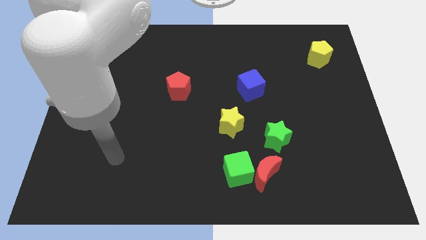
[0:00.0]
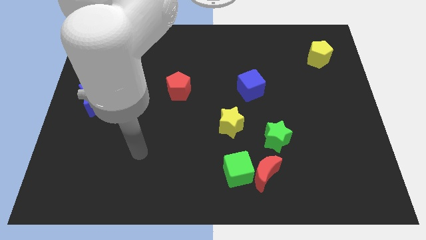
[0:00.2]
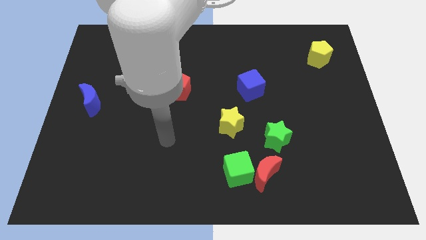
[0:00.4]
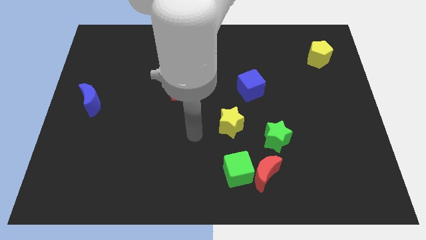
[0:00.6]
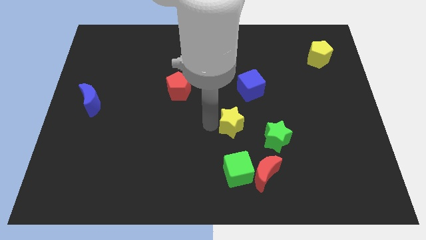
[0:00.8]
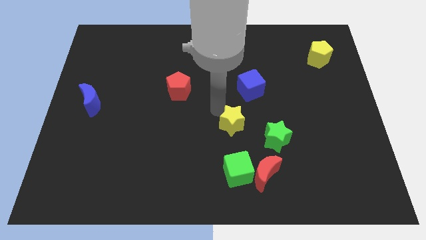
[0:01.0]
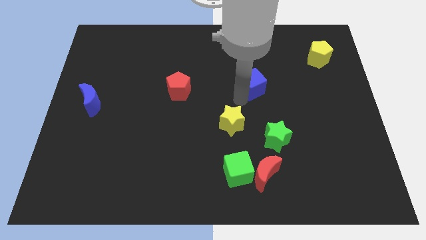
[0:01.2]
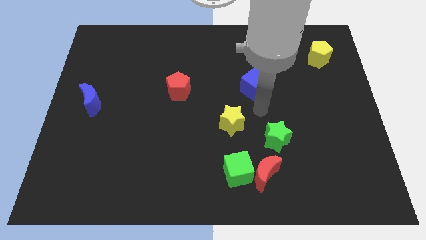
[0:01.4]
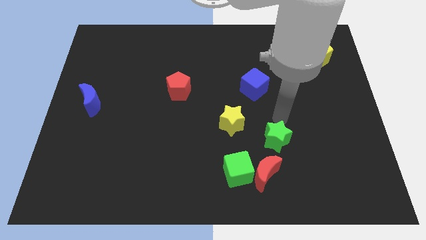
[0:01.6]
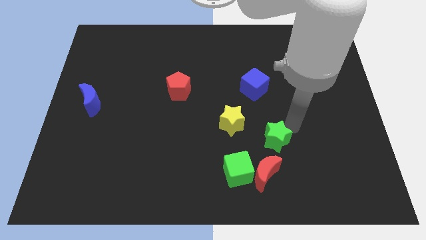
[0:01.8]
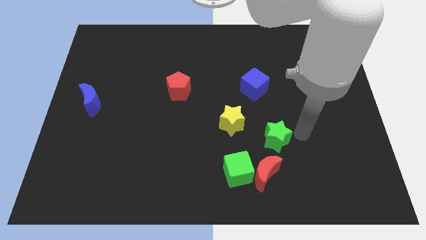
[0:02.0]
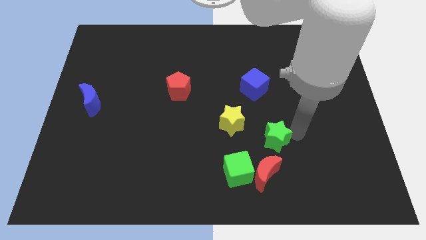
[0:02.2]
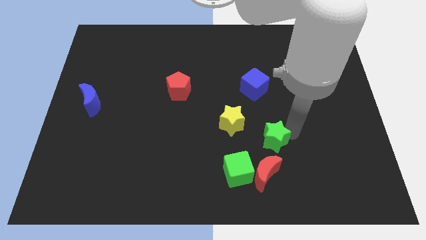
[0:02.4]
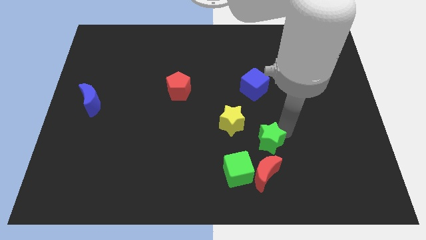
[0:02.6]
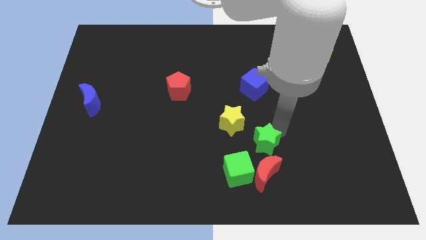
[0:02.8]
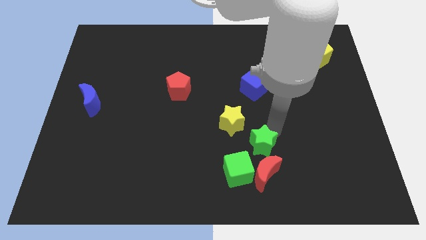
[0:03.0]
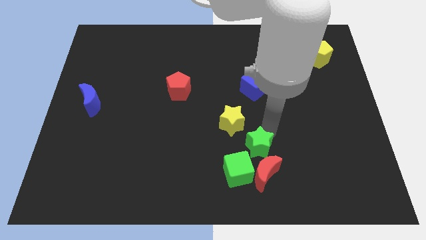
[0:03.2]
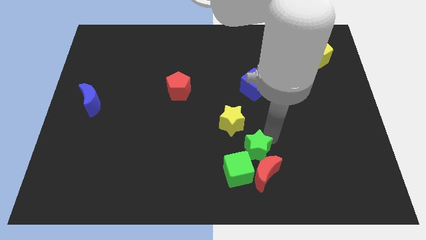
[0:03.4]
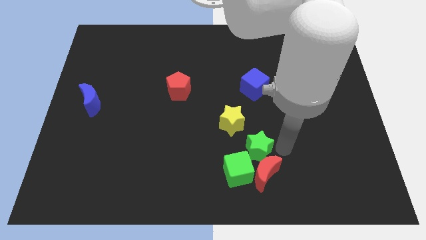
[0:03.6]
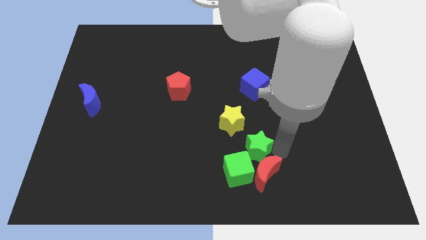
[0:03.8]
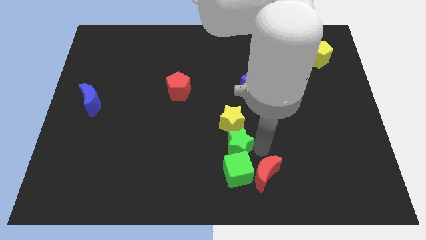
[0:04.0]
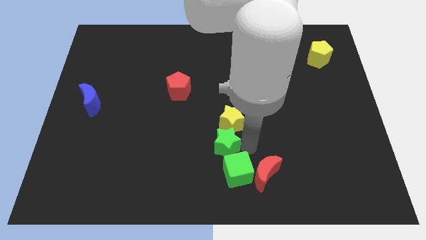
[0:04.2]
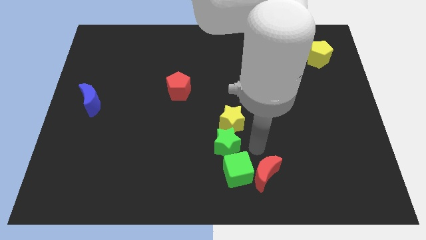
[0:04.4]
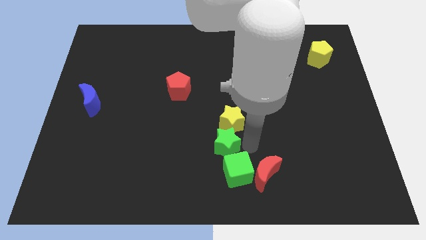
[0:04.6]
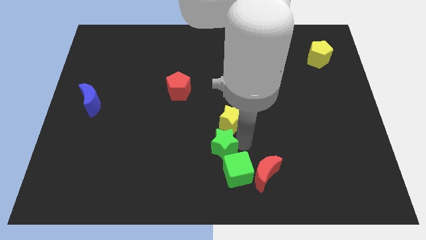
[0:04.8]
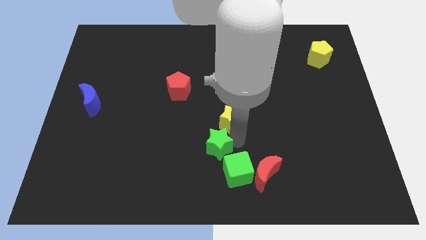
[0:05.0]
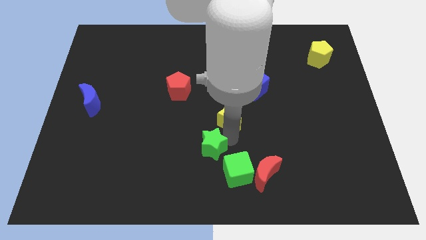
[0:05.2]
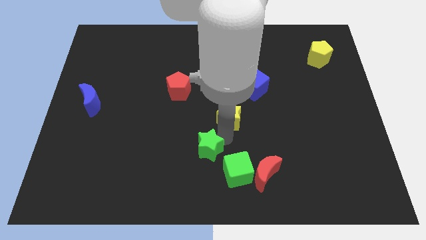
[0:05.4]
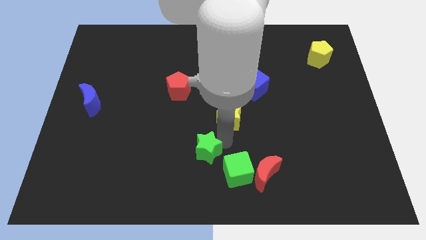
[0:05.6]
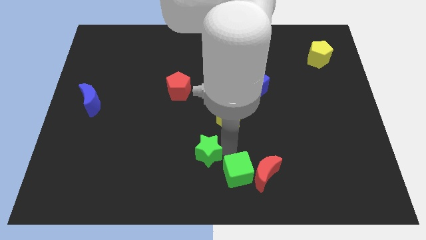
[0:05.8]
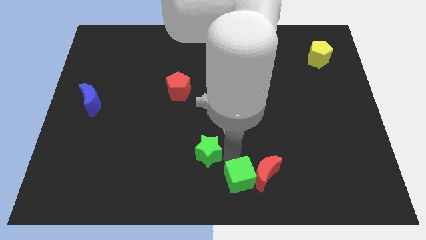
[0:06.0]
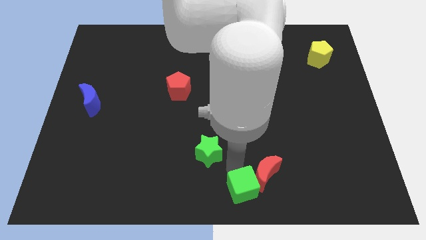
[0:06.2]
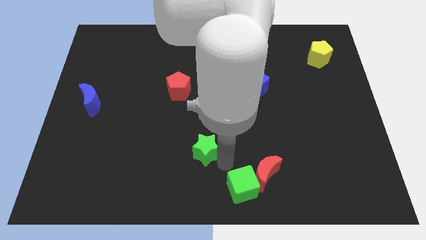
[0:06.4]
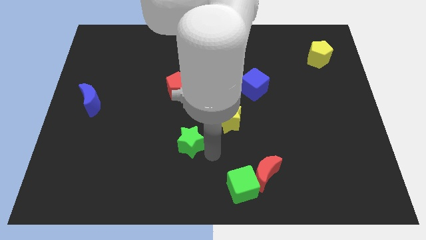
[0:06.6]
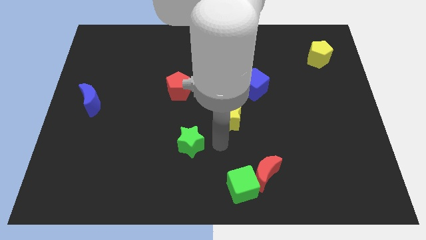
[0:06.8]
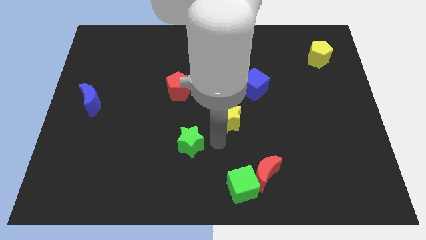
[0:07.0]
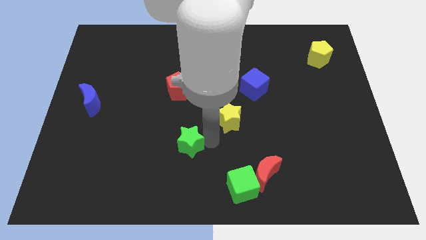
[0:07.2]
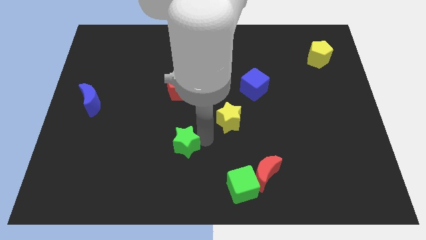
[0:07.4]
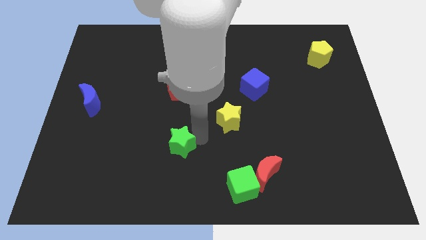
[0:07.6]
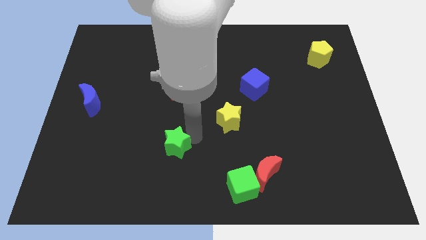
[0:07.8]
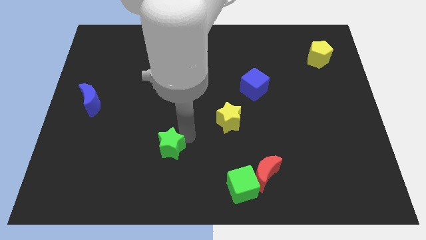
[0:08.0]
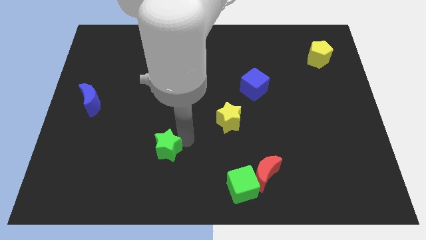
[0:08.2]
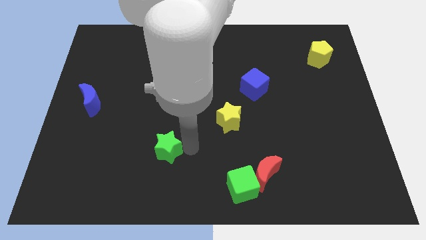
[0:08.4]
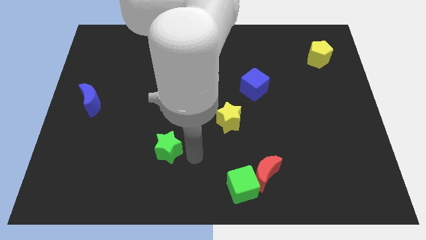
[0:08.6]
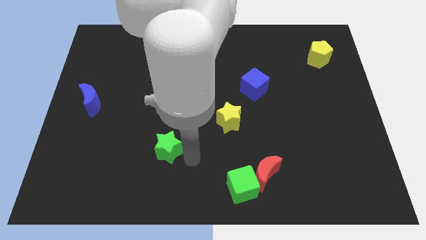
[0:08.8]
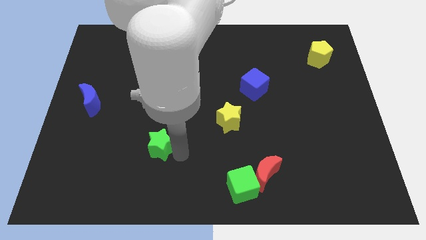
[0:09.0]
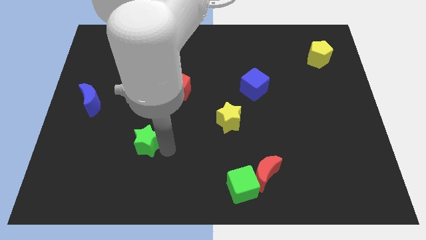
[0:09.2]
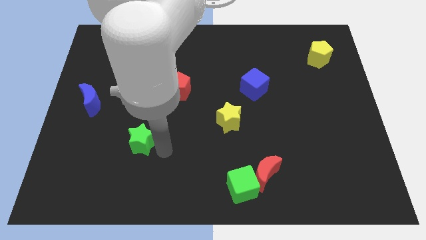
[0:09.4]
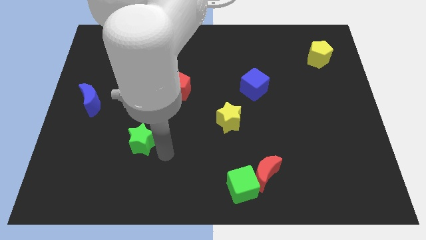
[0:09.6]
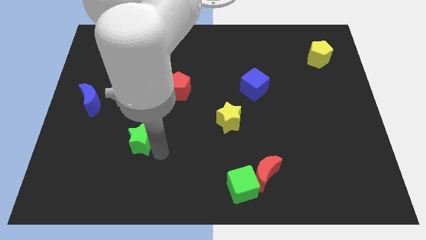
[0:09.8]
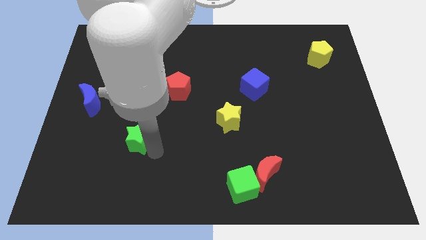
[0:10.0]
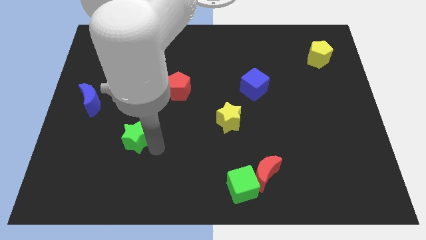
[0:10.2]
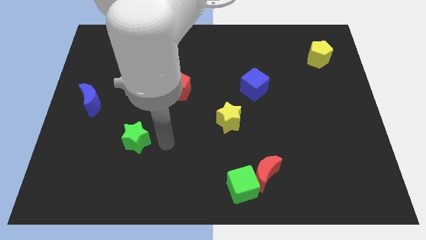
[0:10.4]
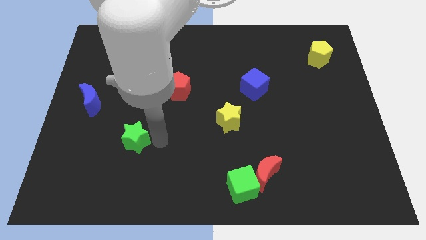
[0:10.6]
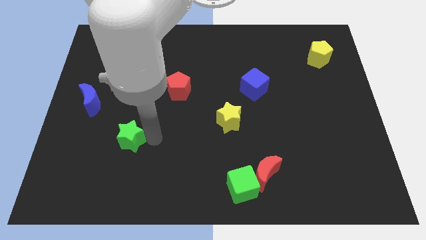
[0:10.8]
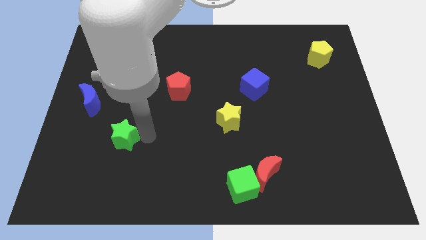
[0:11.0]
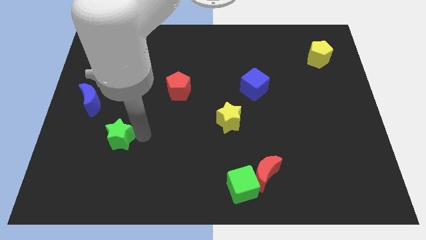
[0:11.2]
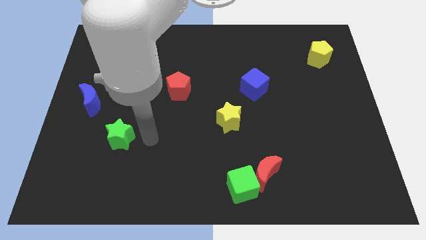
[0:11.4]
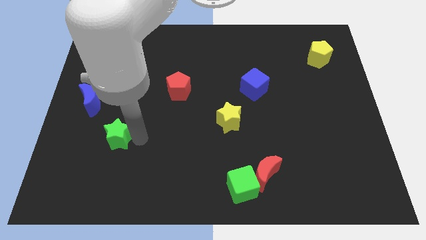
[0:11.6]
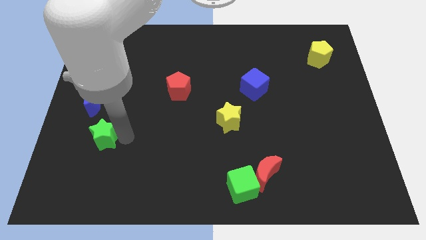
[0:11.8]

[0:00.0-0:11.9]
put the green star to the bottom of the blue moon

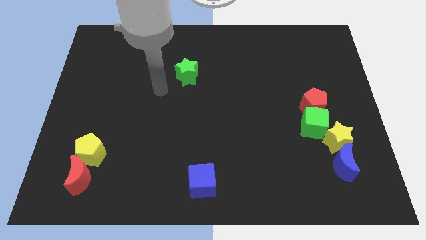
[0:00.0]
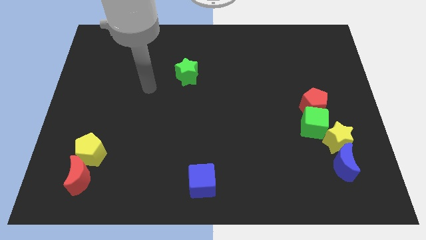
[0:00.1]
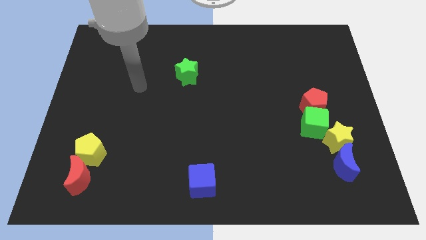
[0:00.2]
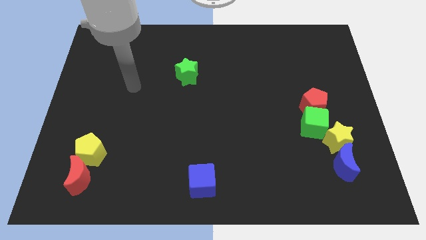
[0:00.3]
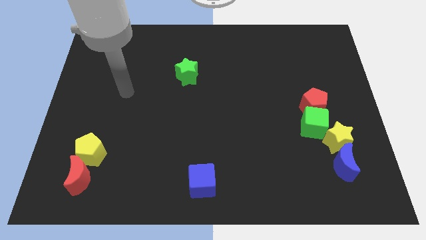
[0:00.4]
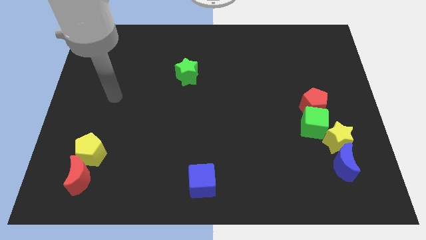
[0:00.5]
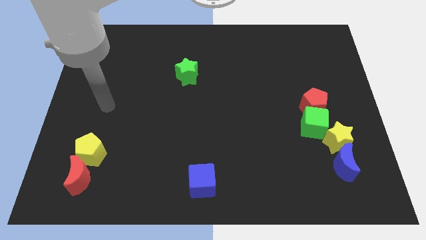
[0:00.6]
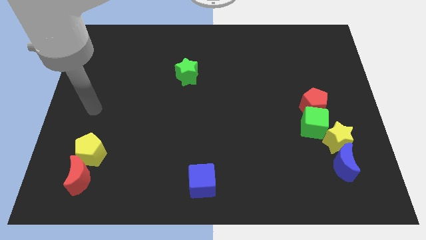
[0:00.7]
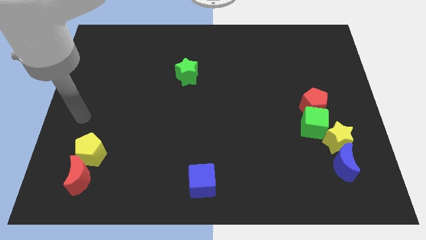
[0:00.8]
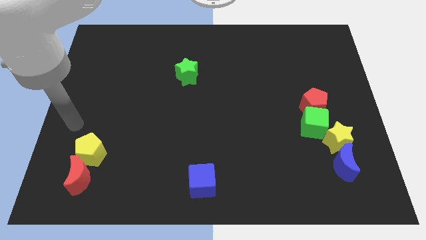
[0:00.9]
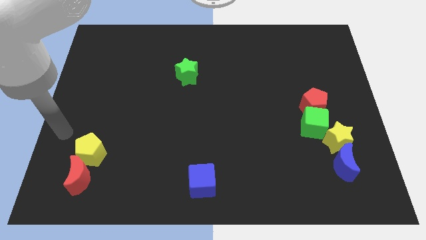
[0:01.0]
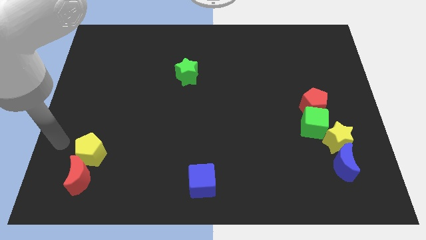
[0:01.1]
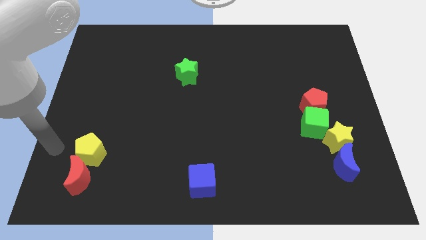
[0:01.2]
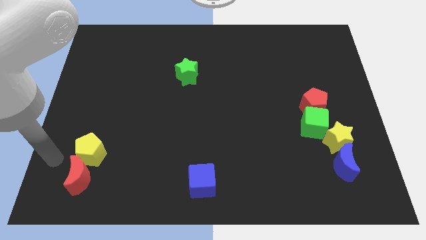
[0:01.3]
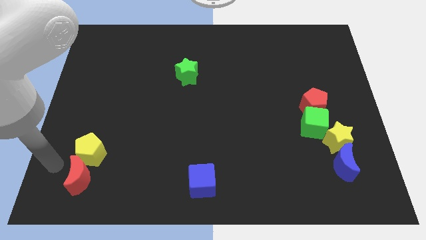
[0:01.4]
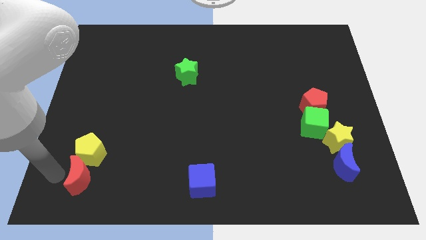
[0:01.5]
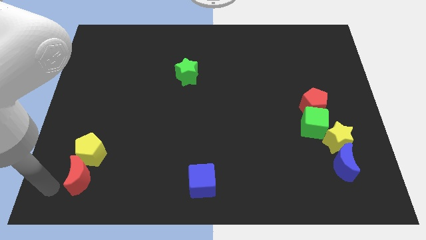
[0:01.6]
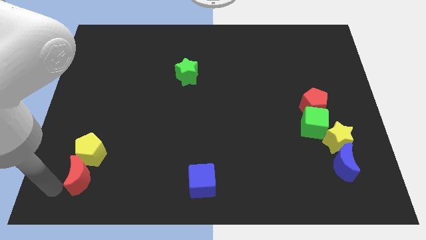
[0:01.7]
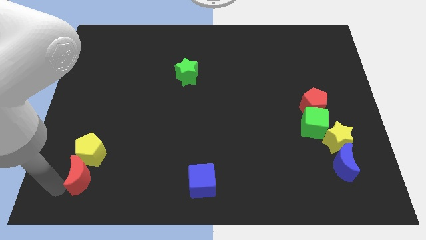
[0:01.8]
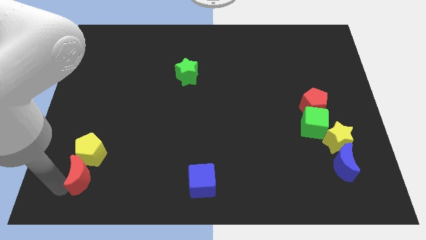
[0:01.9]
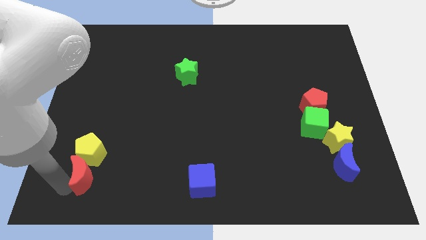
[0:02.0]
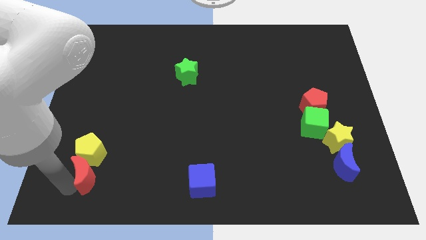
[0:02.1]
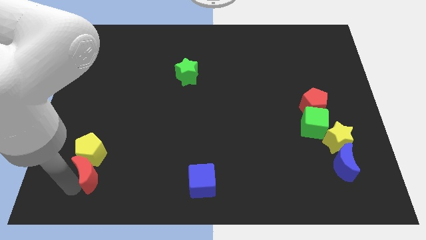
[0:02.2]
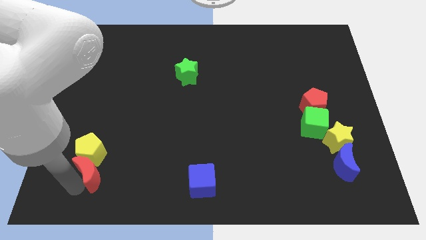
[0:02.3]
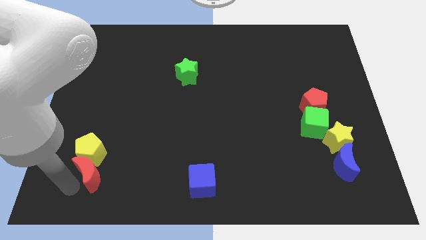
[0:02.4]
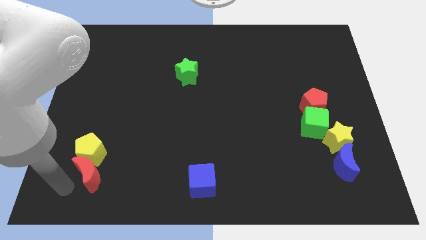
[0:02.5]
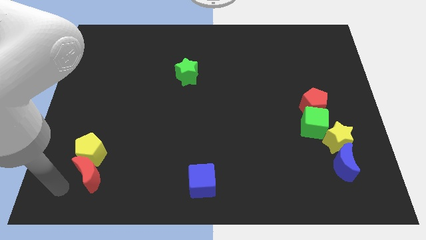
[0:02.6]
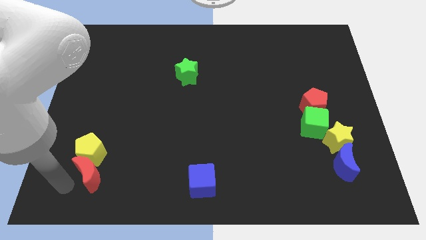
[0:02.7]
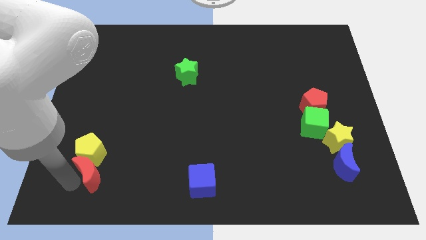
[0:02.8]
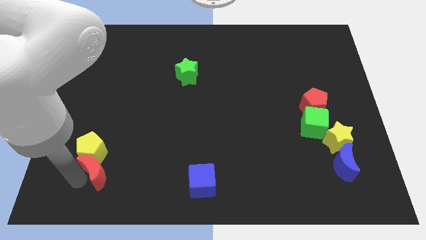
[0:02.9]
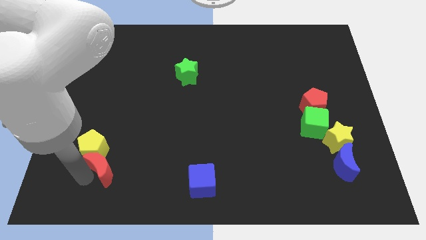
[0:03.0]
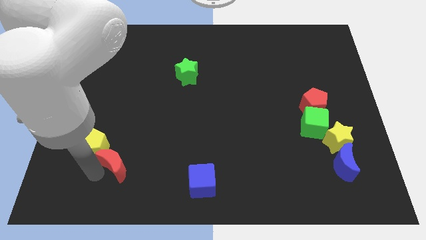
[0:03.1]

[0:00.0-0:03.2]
push the red moon to the right side of the yellow pentagon
